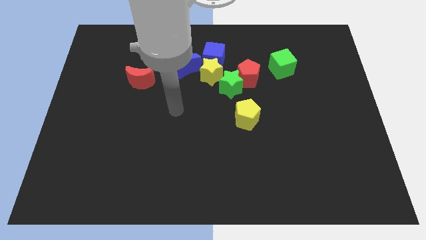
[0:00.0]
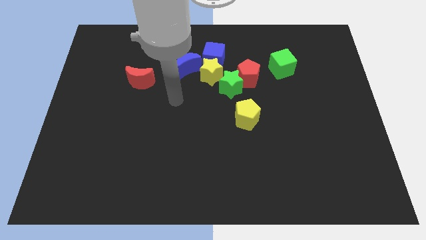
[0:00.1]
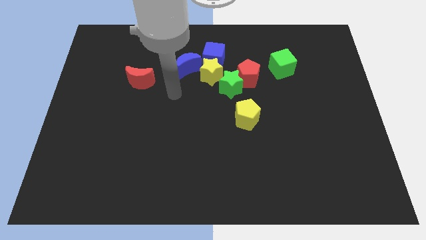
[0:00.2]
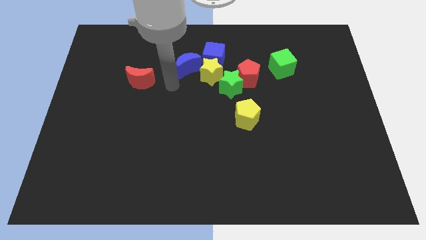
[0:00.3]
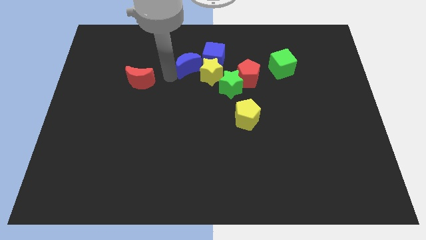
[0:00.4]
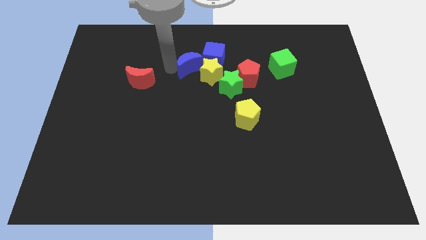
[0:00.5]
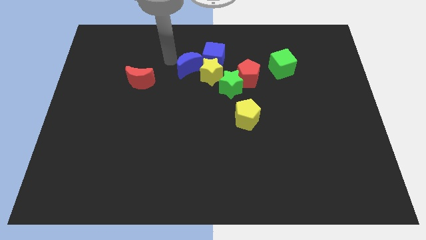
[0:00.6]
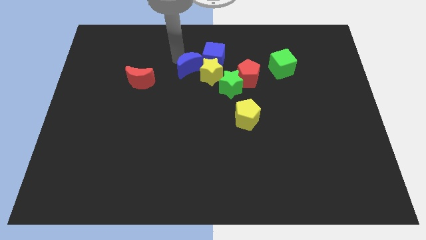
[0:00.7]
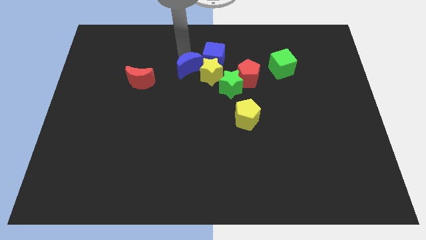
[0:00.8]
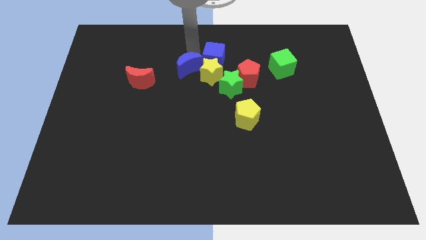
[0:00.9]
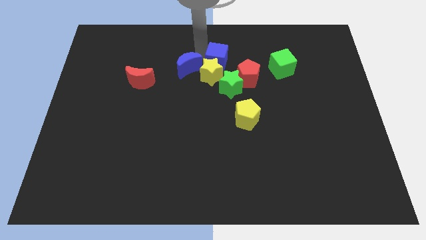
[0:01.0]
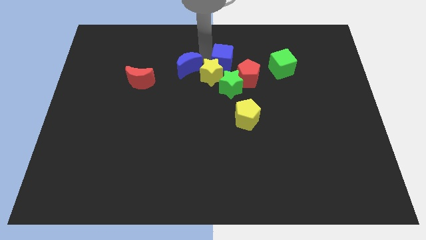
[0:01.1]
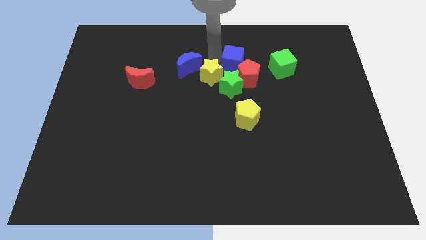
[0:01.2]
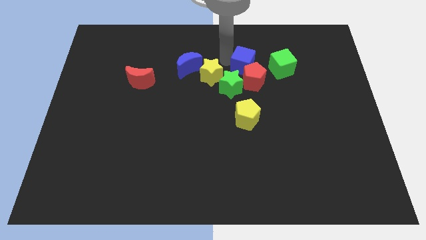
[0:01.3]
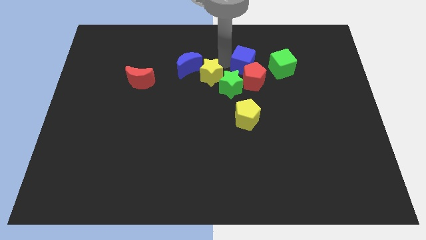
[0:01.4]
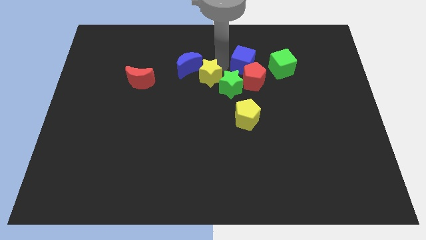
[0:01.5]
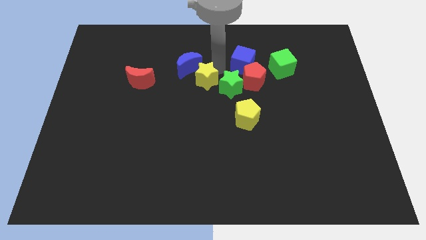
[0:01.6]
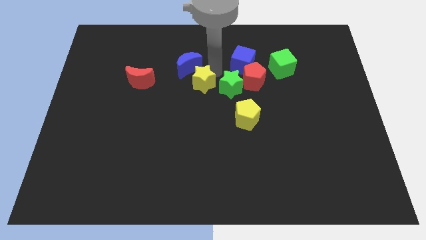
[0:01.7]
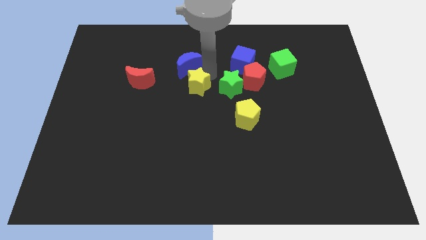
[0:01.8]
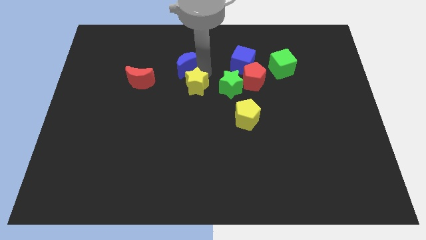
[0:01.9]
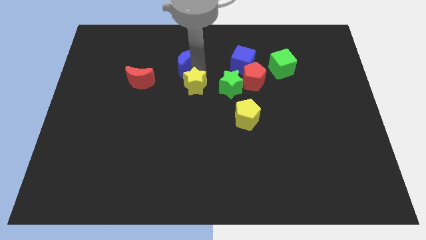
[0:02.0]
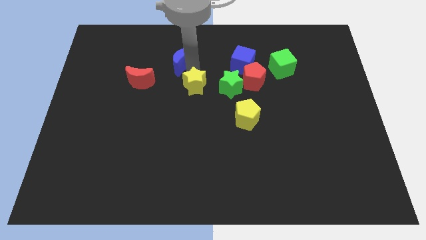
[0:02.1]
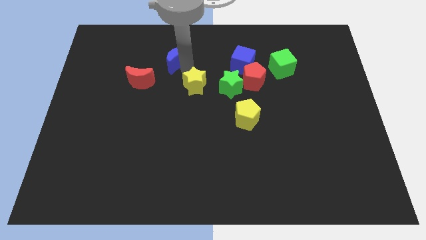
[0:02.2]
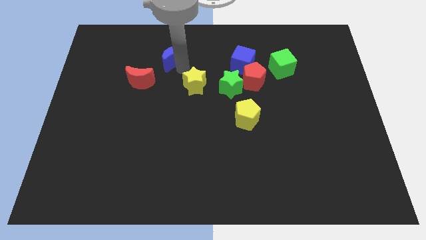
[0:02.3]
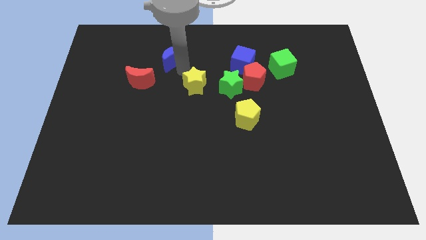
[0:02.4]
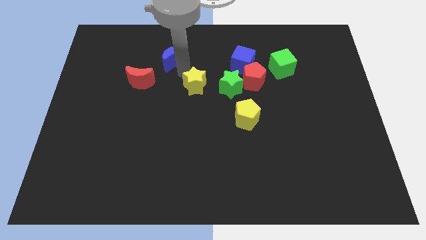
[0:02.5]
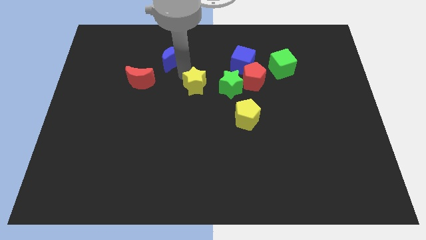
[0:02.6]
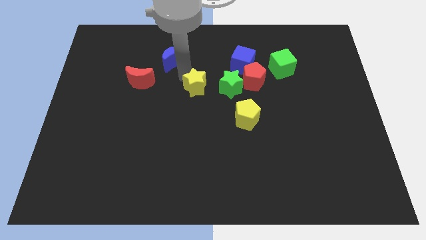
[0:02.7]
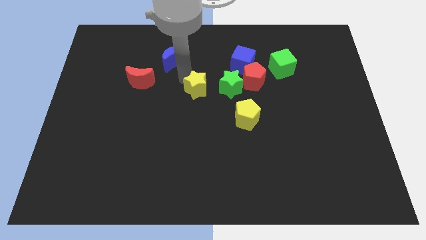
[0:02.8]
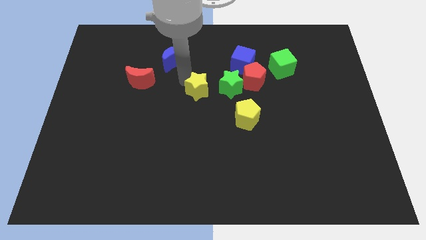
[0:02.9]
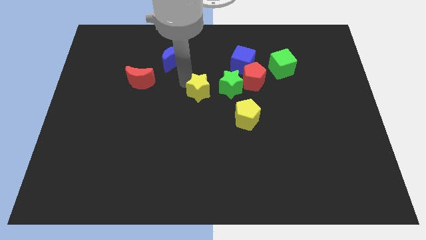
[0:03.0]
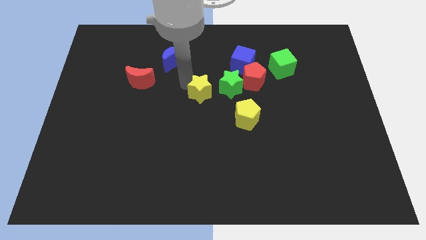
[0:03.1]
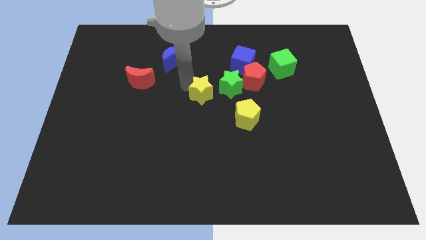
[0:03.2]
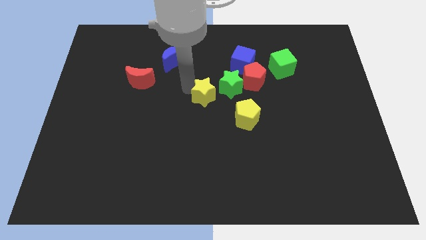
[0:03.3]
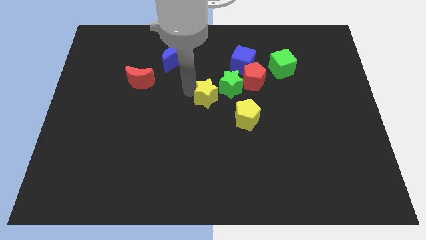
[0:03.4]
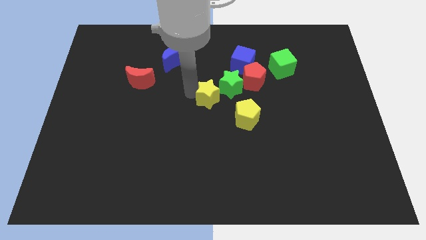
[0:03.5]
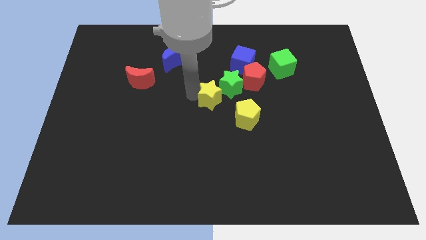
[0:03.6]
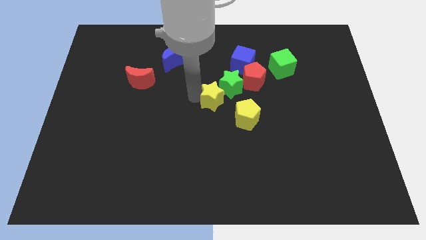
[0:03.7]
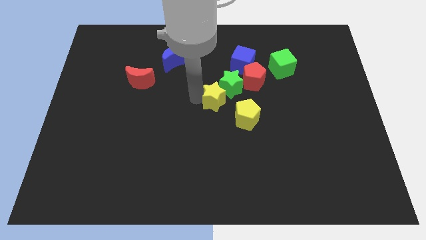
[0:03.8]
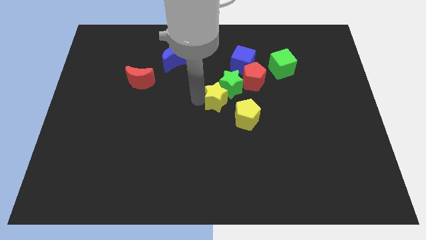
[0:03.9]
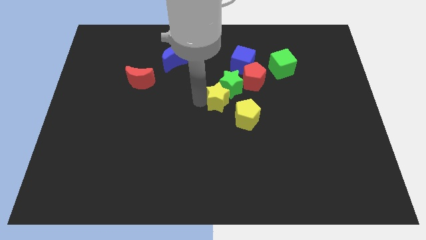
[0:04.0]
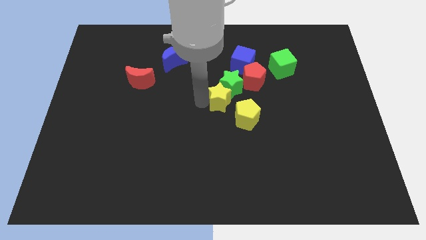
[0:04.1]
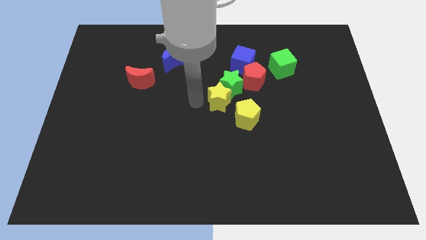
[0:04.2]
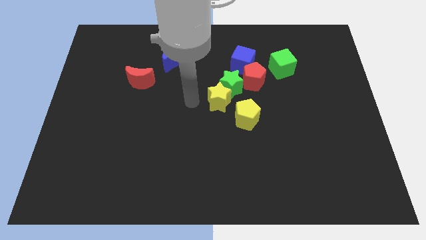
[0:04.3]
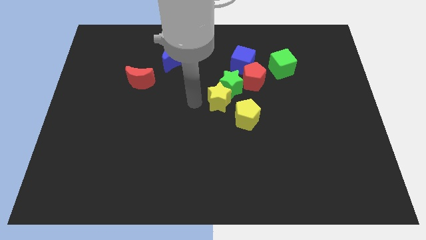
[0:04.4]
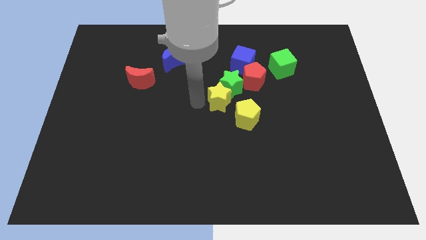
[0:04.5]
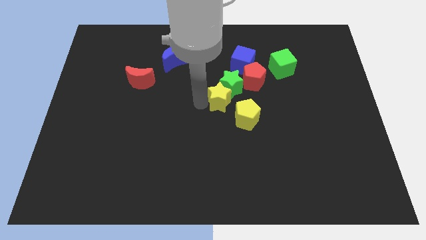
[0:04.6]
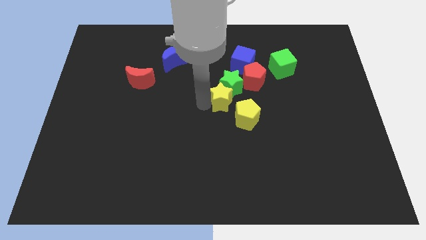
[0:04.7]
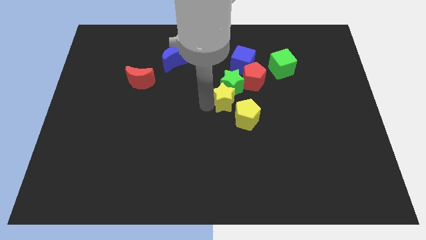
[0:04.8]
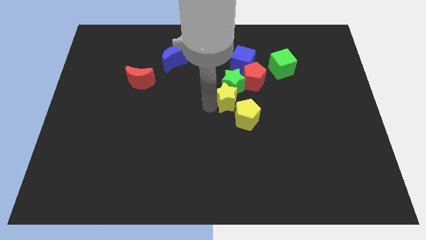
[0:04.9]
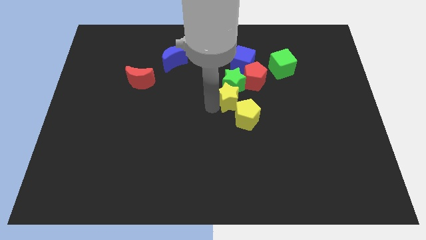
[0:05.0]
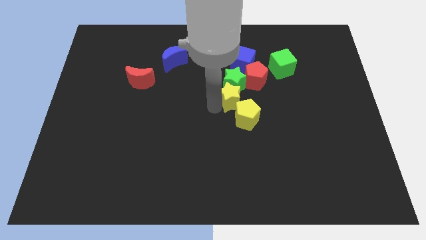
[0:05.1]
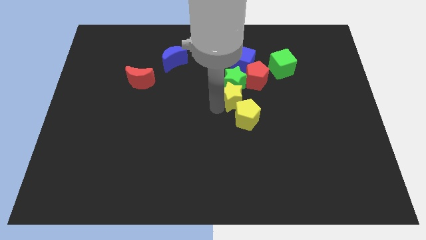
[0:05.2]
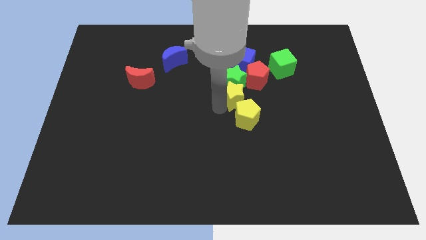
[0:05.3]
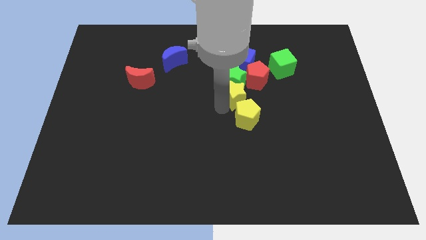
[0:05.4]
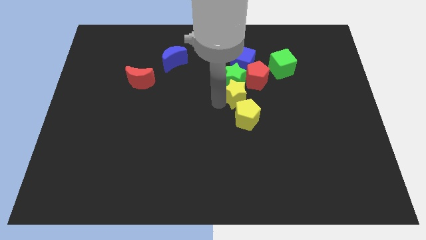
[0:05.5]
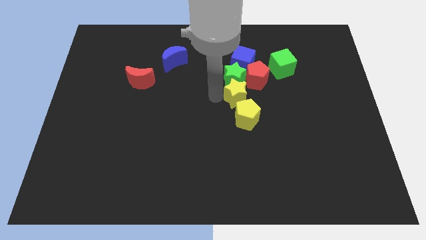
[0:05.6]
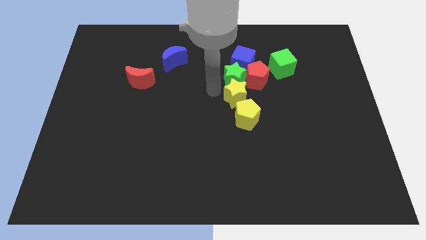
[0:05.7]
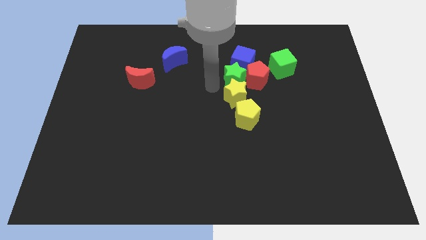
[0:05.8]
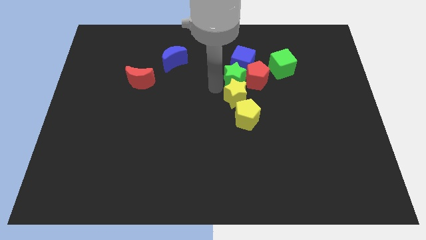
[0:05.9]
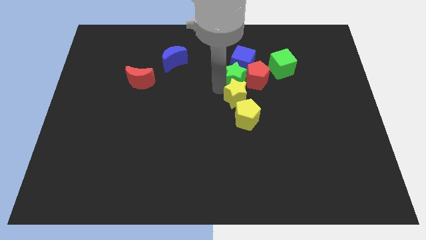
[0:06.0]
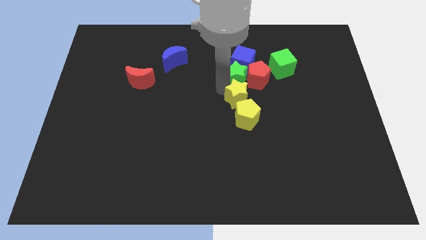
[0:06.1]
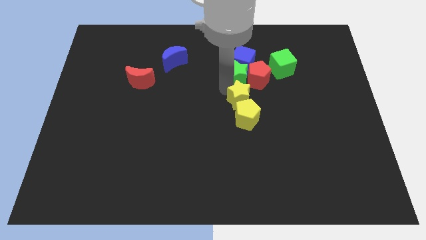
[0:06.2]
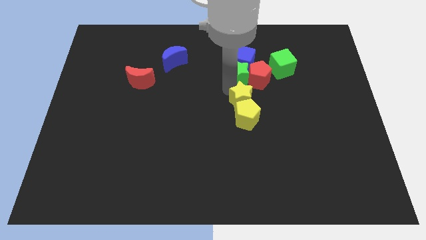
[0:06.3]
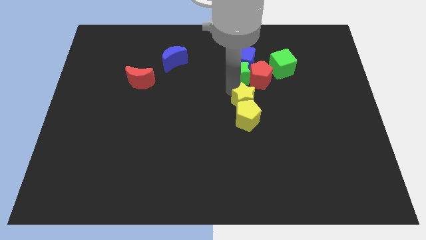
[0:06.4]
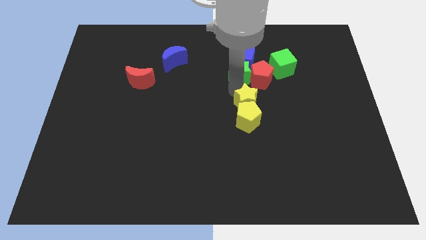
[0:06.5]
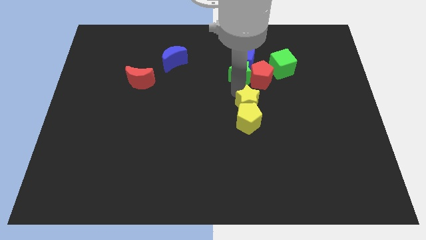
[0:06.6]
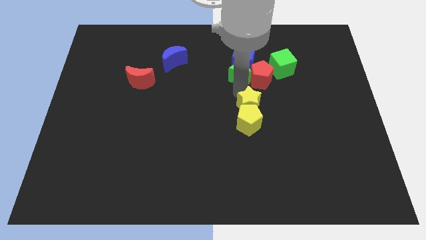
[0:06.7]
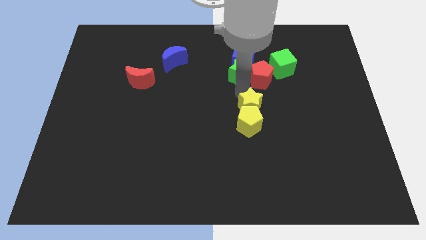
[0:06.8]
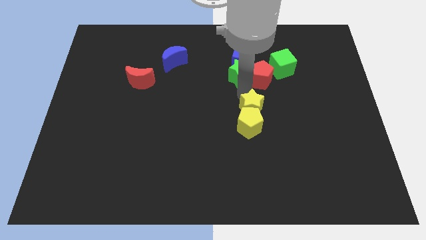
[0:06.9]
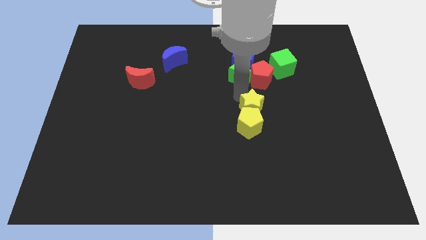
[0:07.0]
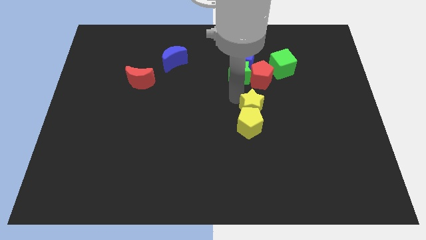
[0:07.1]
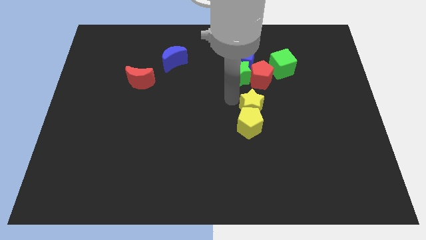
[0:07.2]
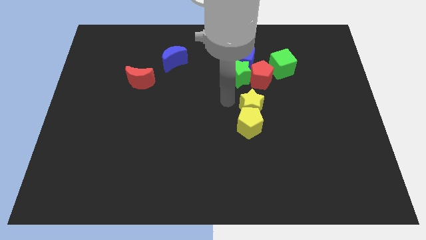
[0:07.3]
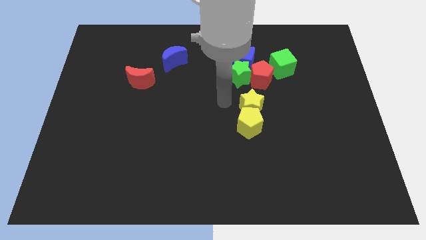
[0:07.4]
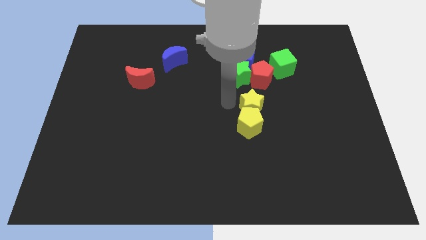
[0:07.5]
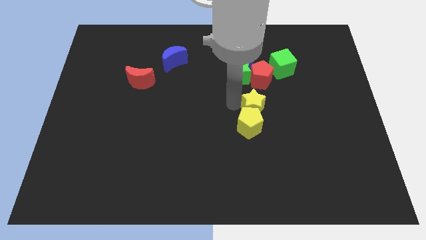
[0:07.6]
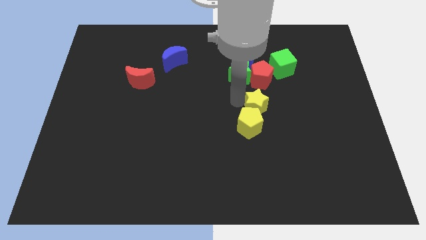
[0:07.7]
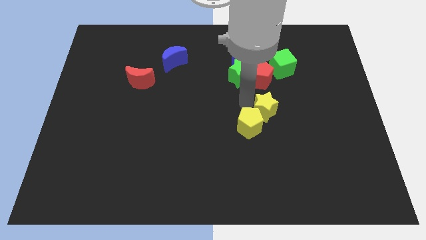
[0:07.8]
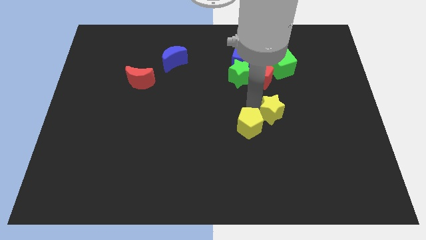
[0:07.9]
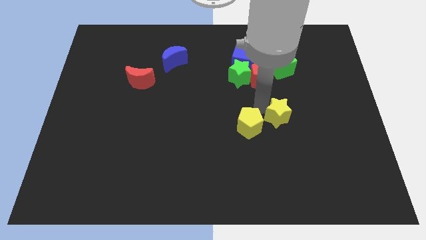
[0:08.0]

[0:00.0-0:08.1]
push the yellow star downwards and then to the right
